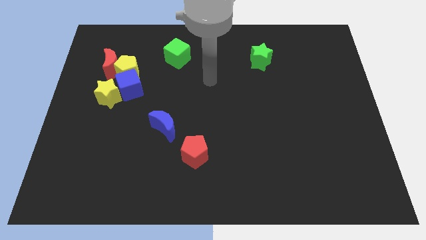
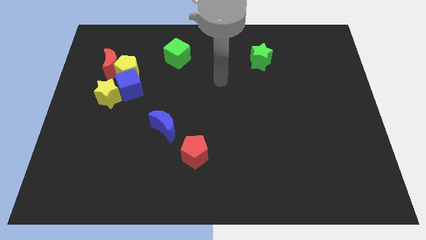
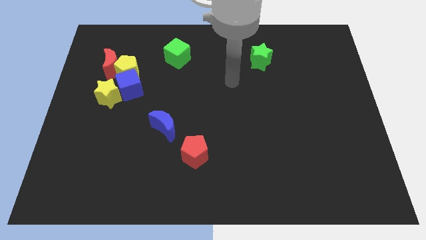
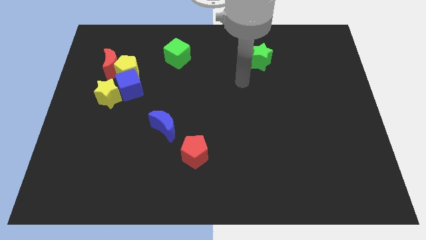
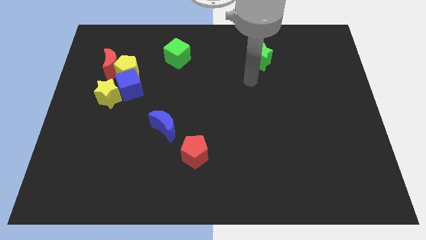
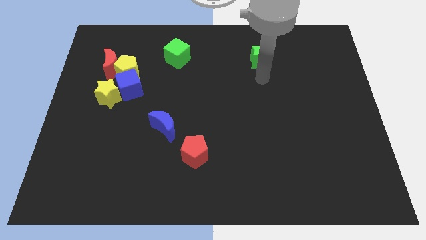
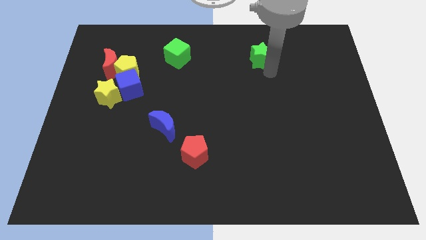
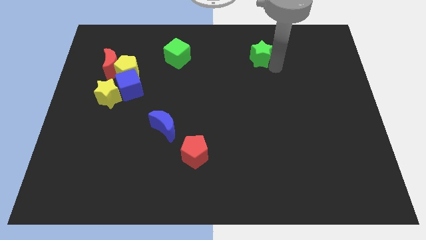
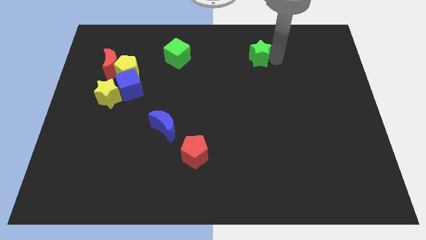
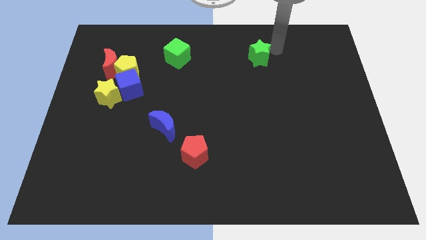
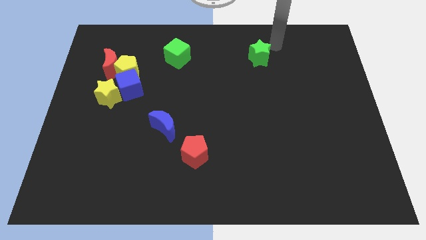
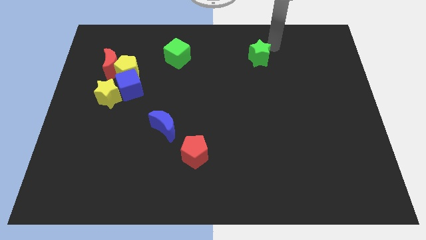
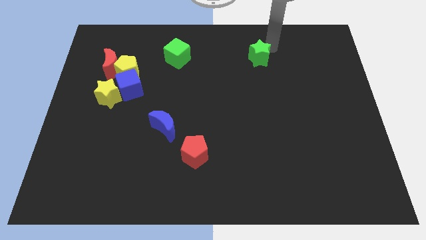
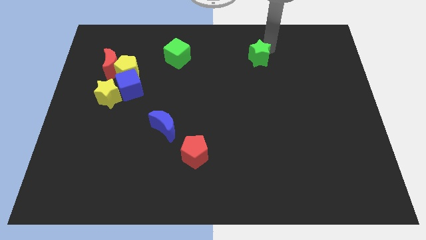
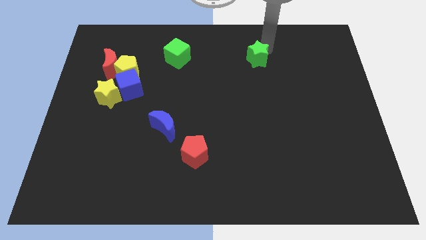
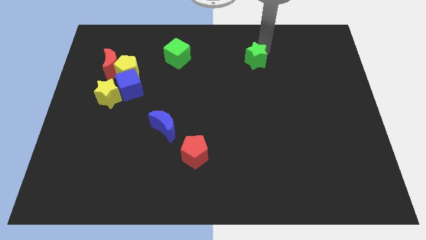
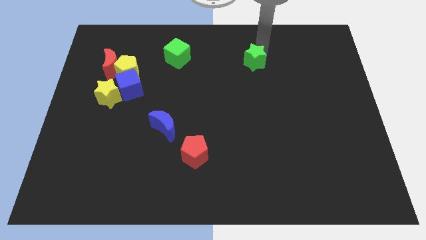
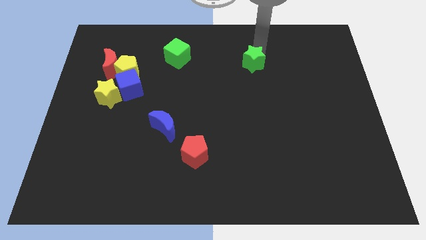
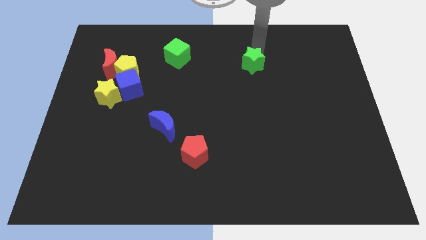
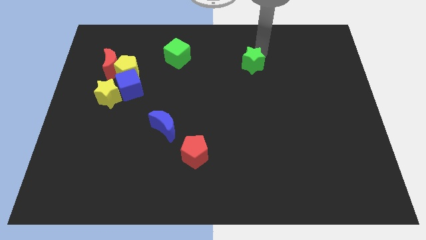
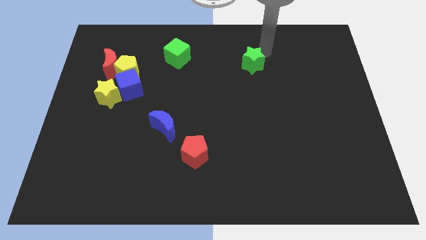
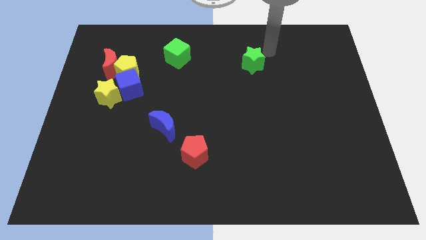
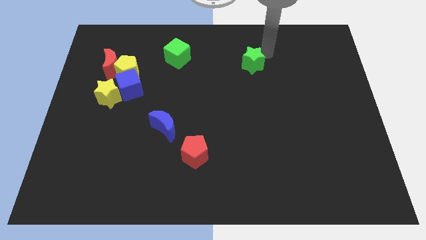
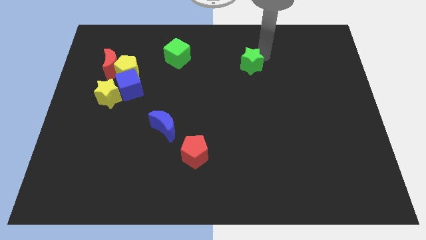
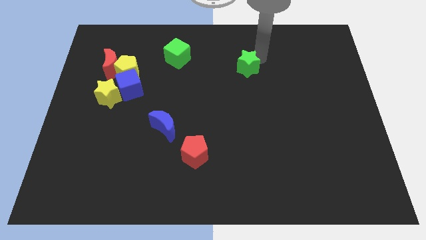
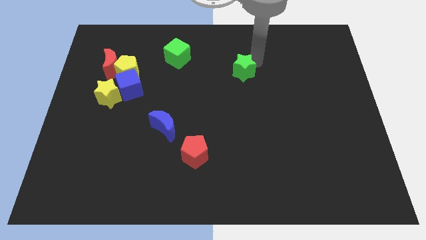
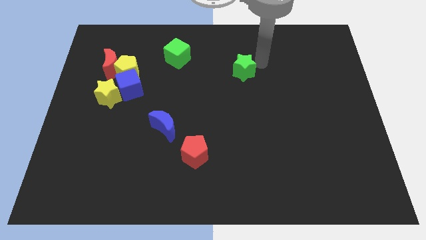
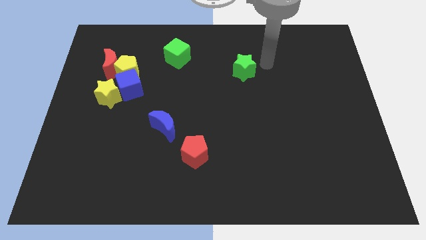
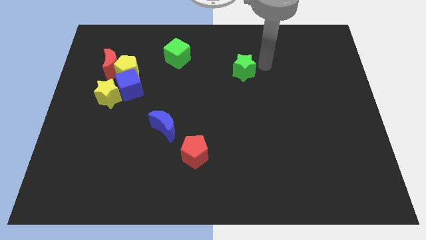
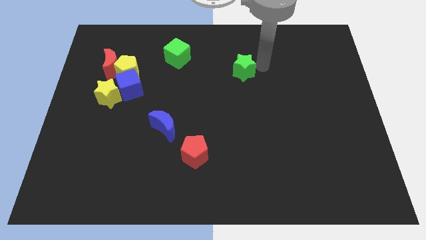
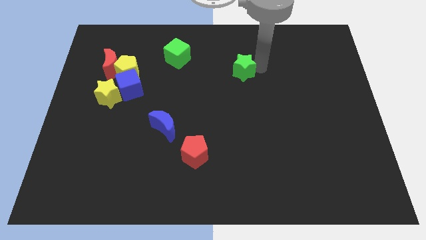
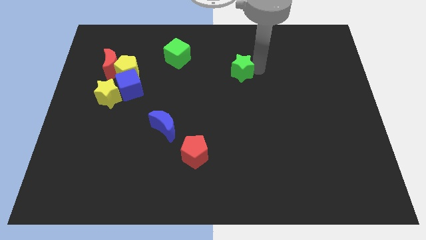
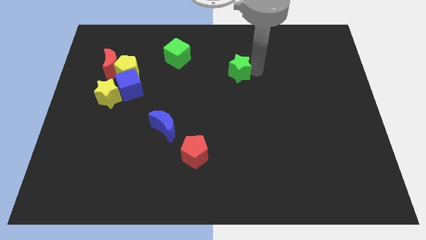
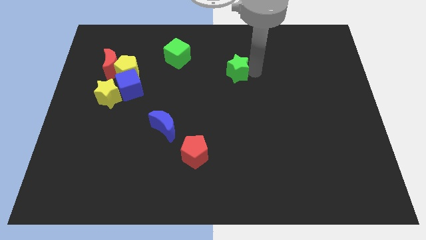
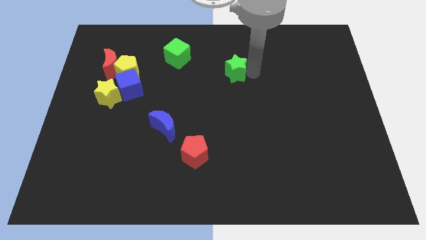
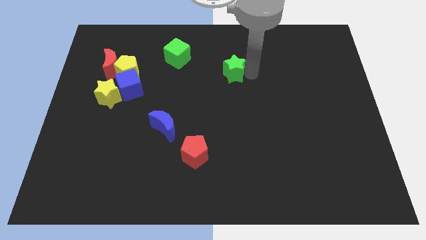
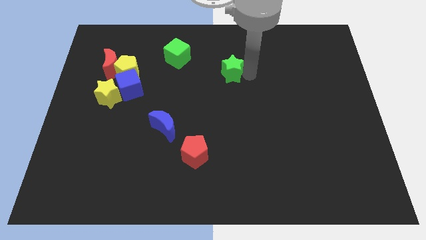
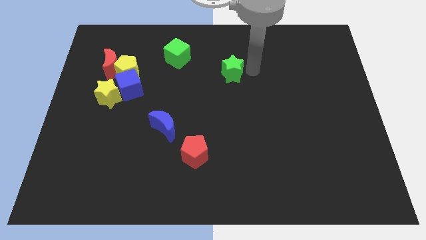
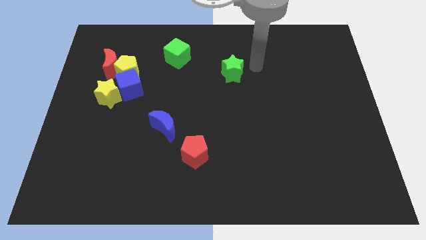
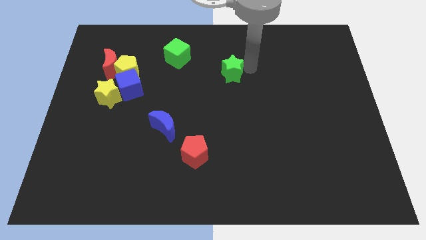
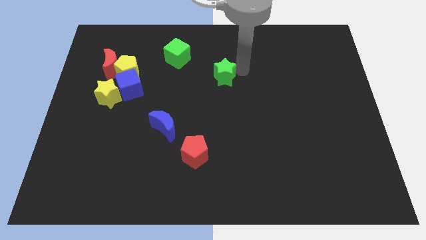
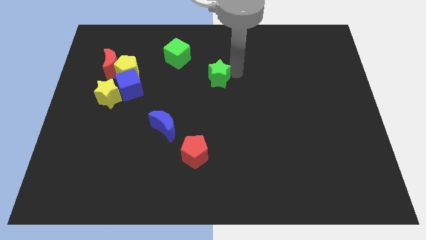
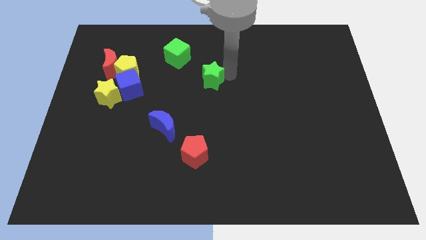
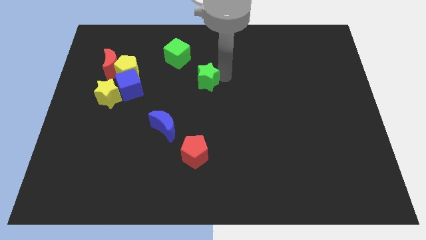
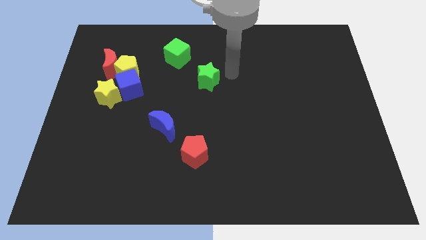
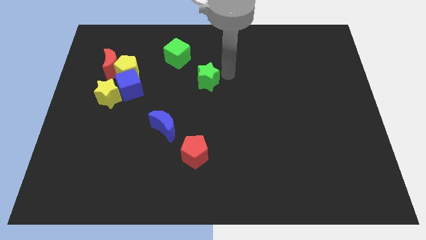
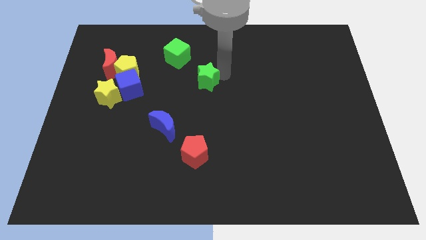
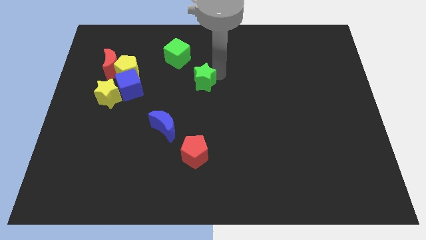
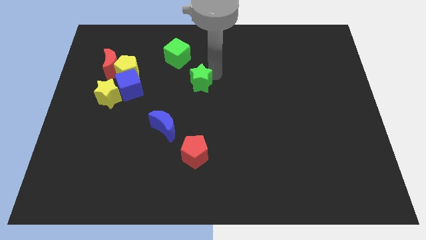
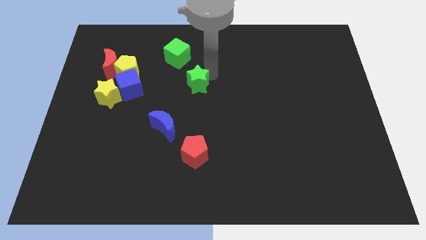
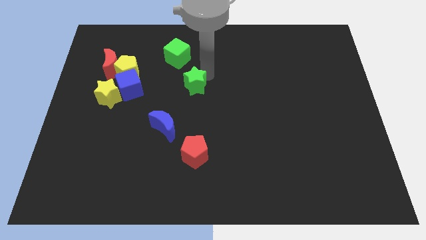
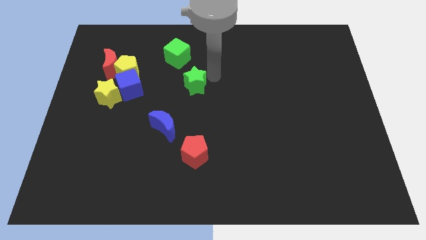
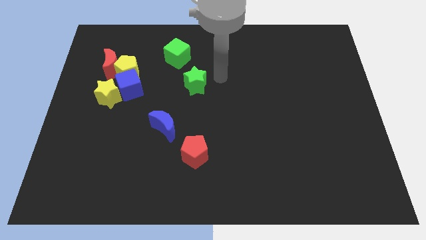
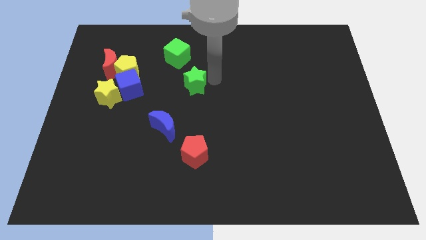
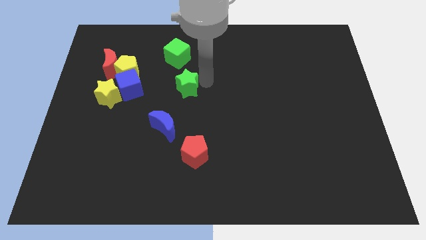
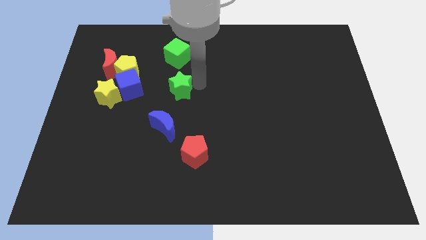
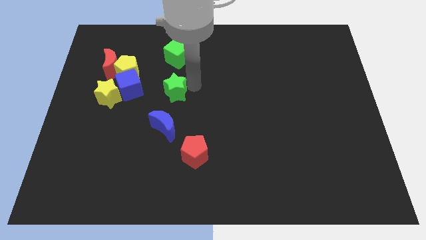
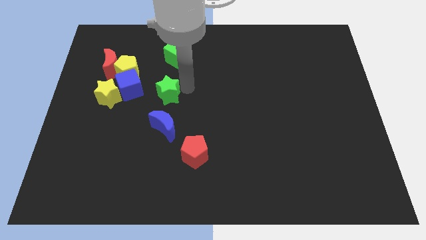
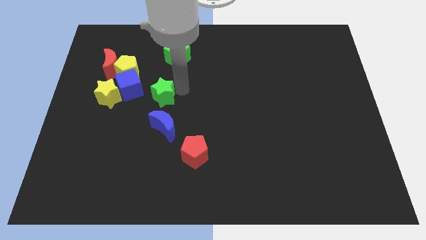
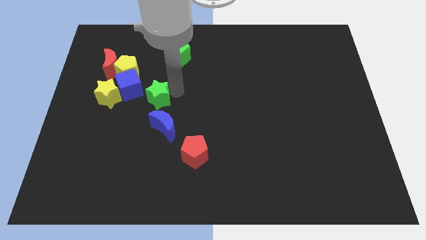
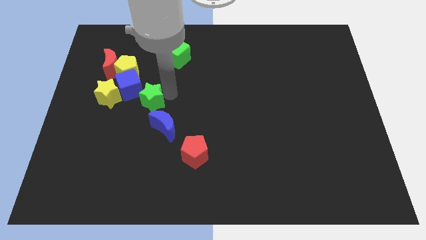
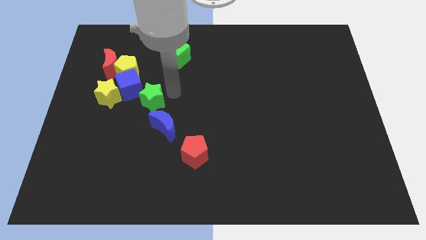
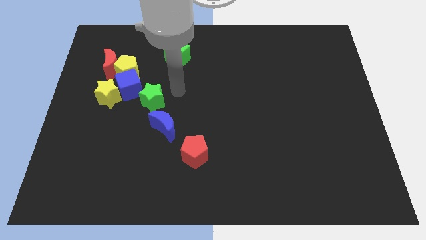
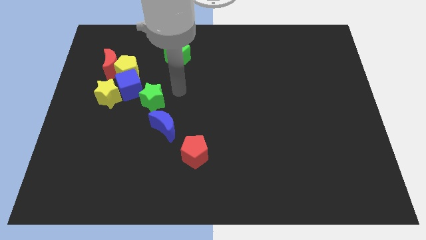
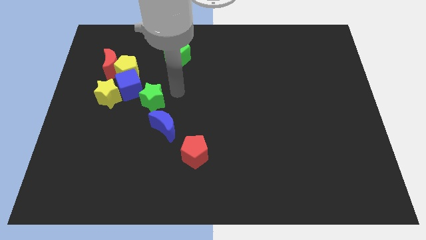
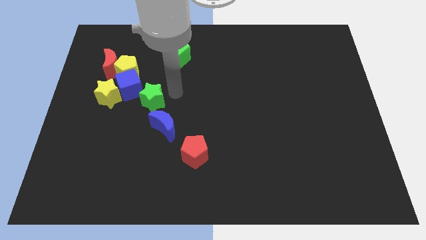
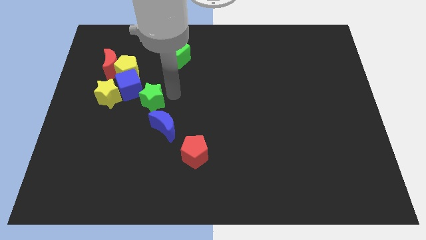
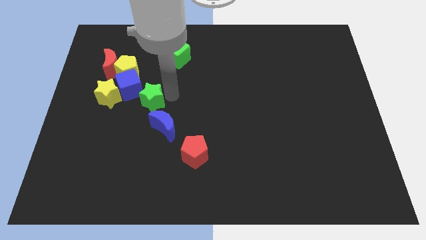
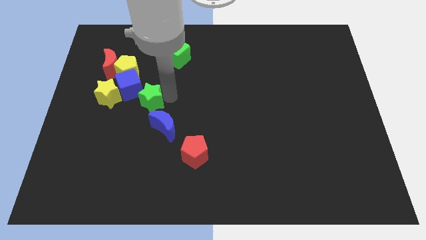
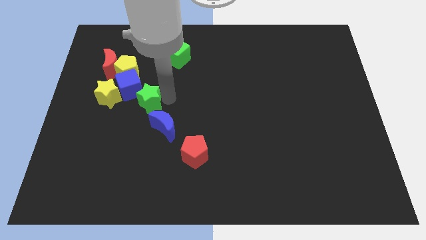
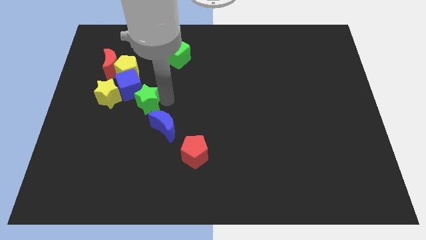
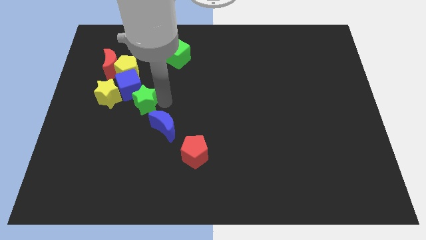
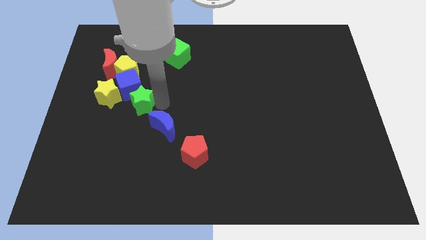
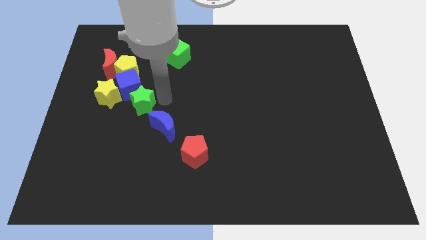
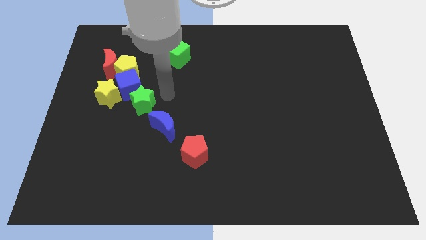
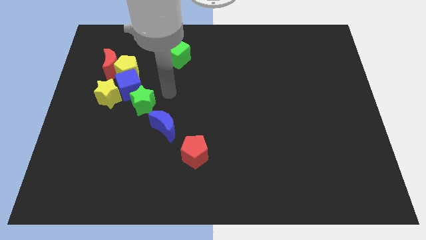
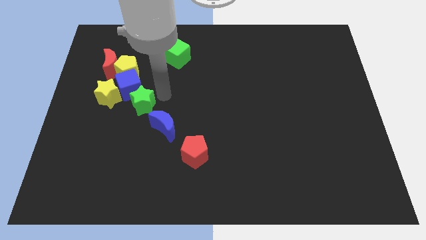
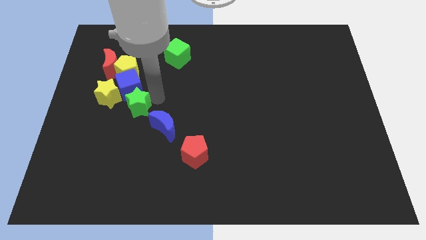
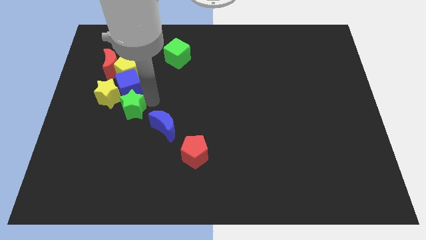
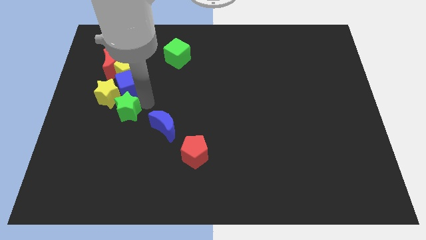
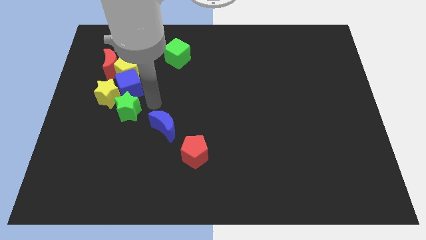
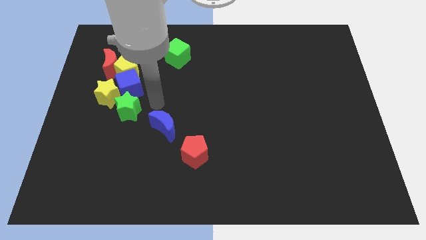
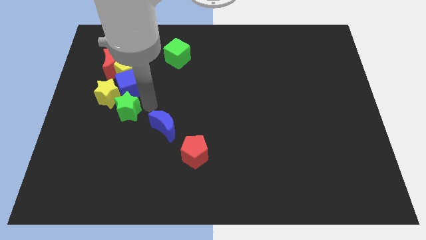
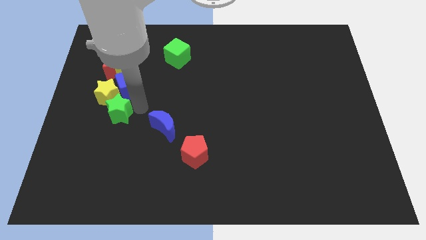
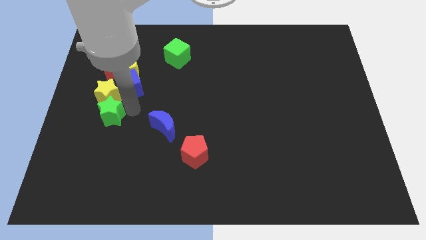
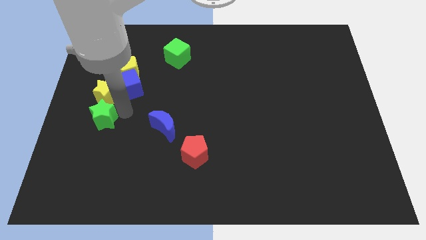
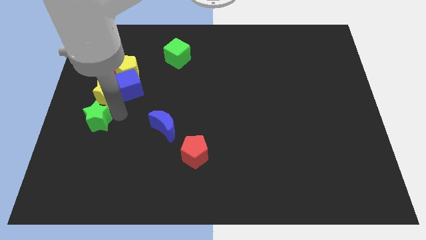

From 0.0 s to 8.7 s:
put the green star to the left side of the board
